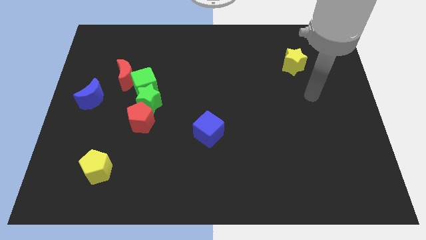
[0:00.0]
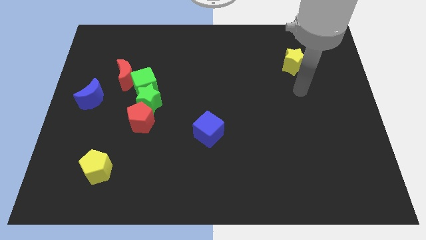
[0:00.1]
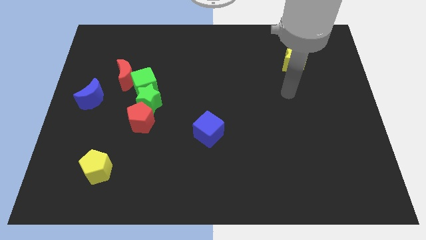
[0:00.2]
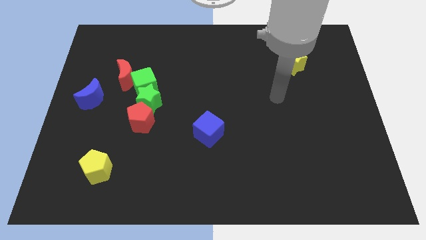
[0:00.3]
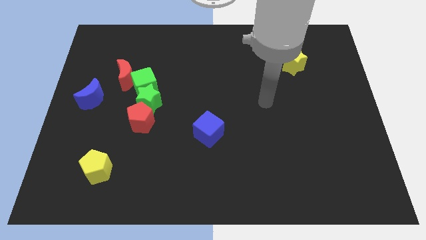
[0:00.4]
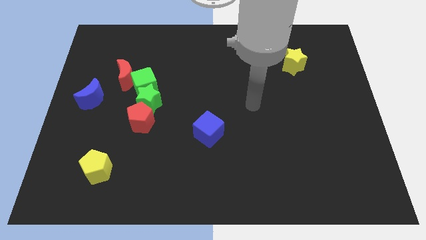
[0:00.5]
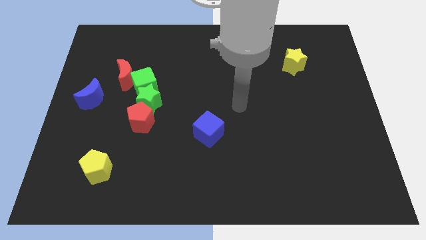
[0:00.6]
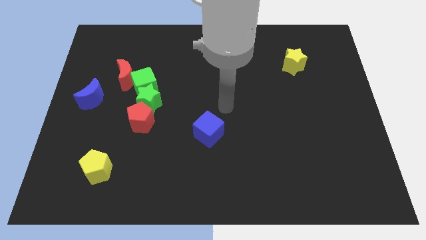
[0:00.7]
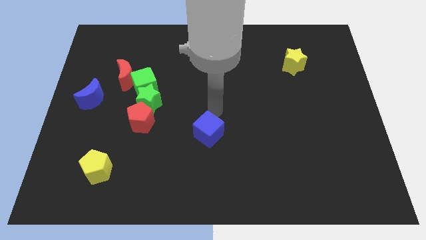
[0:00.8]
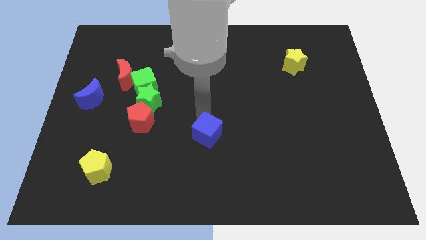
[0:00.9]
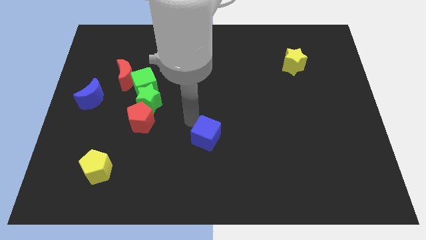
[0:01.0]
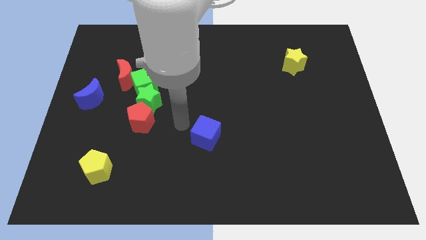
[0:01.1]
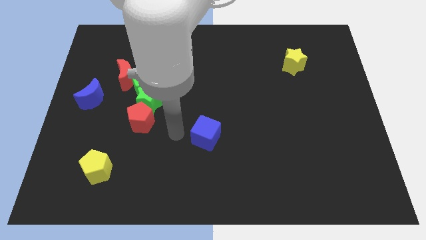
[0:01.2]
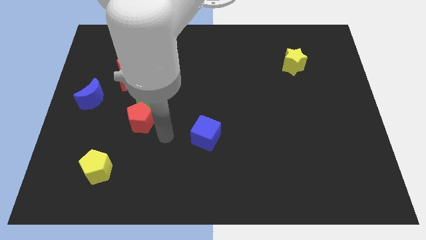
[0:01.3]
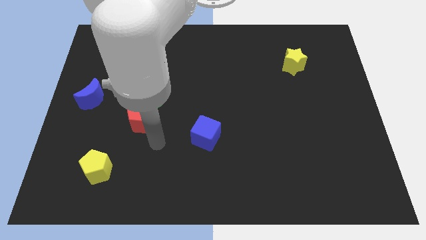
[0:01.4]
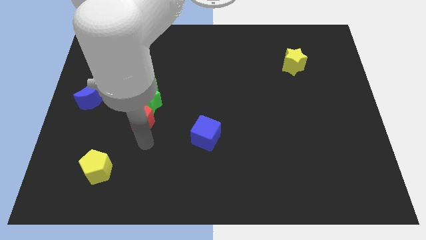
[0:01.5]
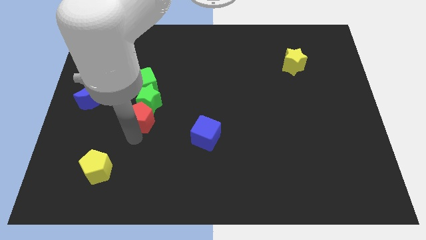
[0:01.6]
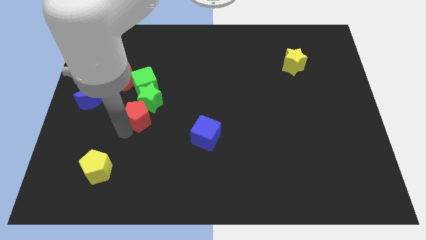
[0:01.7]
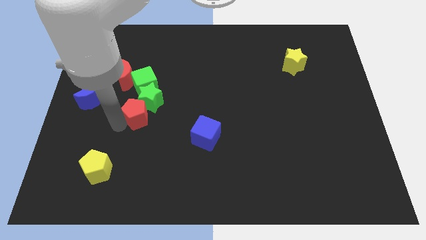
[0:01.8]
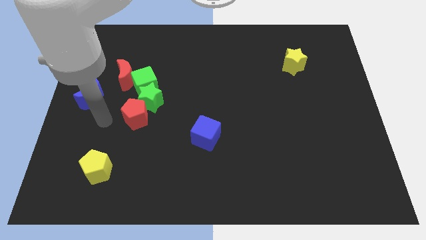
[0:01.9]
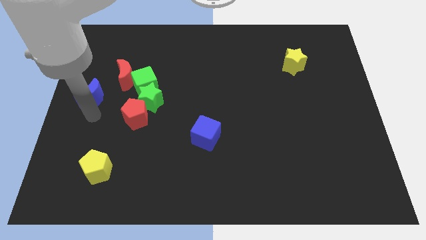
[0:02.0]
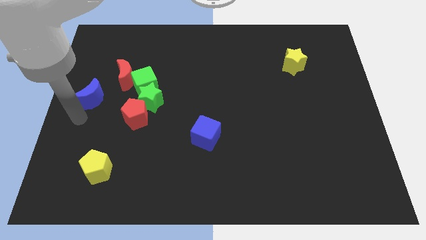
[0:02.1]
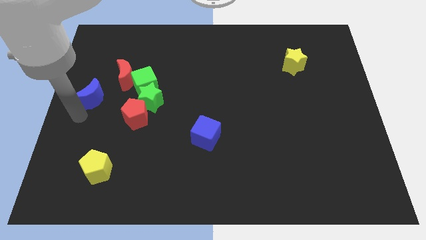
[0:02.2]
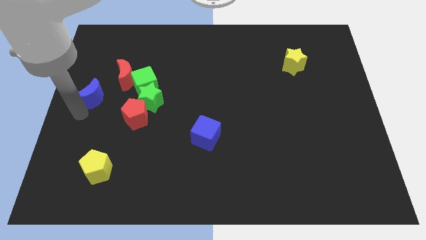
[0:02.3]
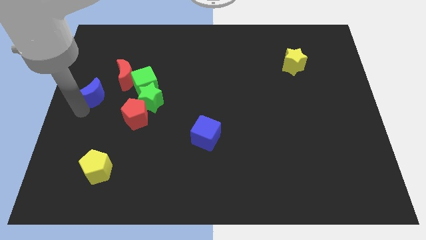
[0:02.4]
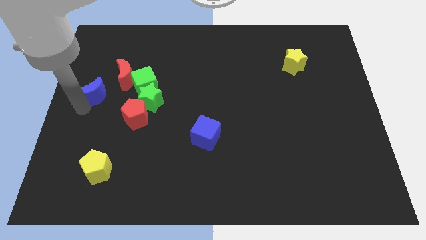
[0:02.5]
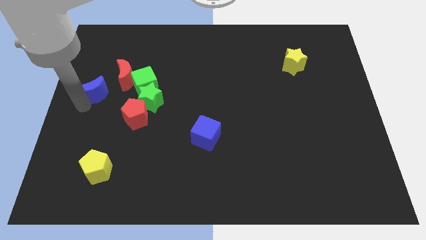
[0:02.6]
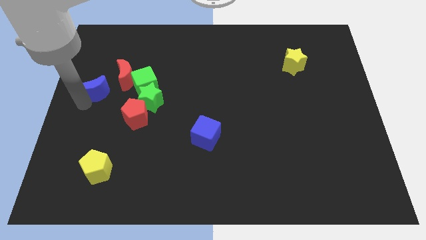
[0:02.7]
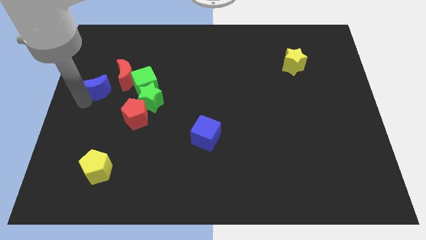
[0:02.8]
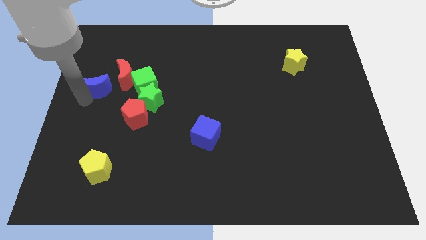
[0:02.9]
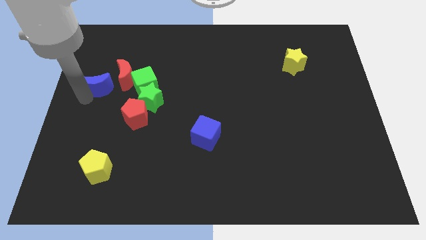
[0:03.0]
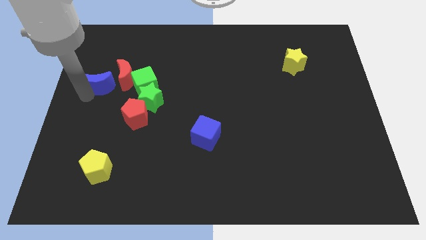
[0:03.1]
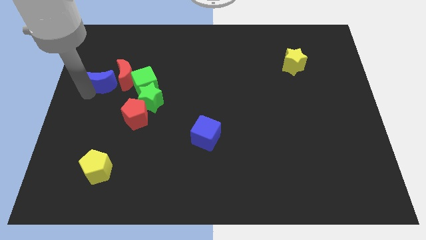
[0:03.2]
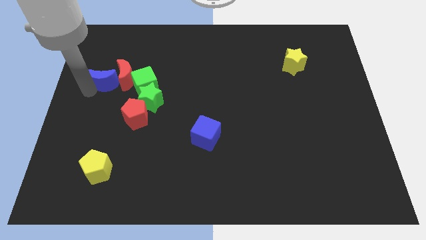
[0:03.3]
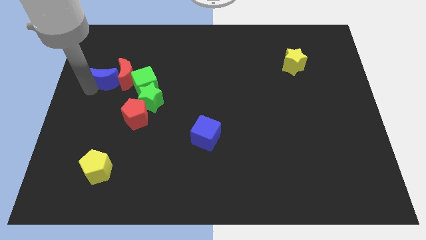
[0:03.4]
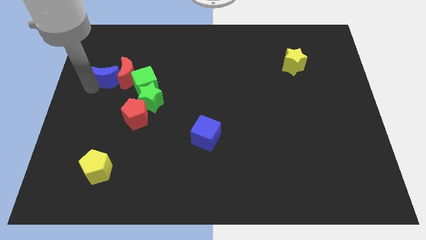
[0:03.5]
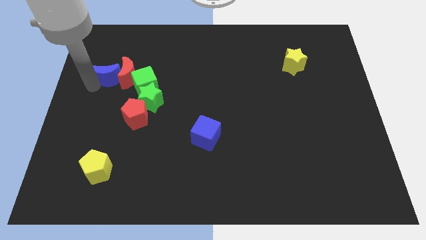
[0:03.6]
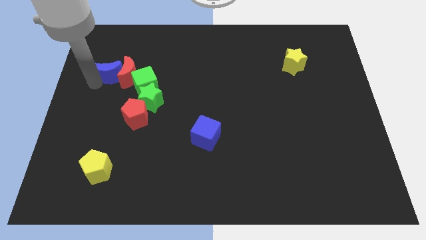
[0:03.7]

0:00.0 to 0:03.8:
push the blue moon up and right a bit

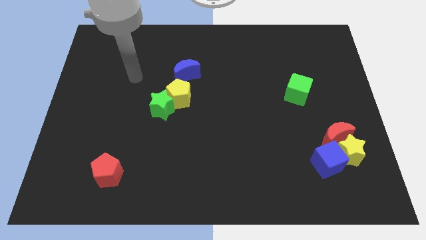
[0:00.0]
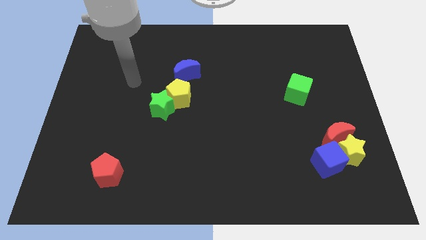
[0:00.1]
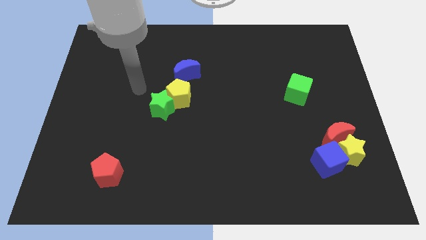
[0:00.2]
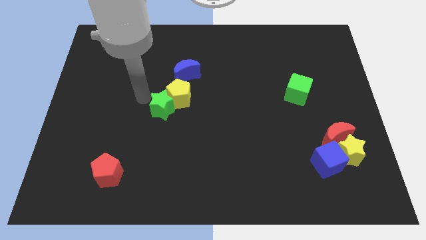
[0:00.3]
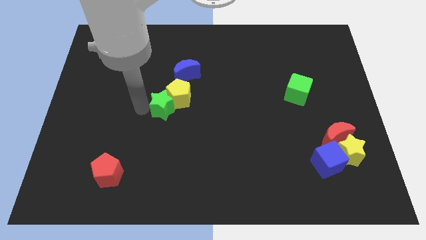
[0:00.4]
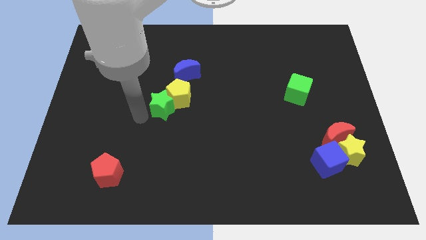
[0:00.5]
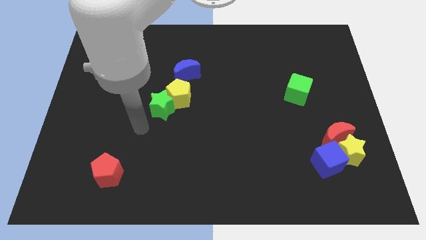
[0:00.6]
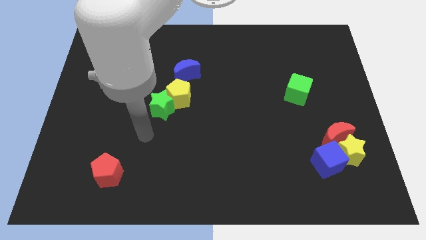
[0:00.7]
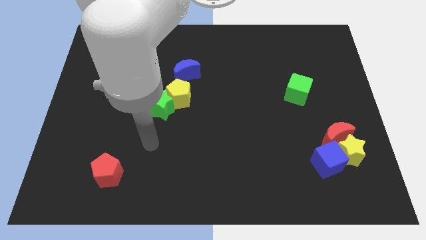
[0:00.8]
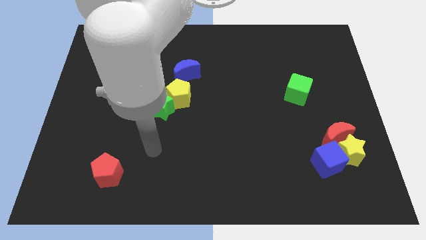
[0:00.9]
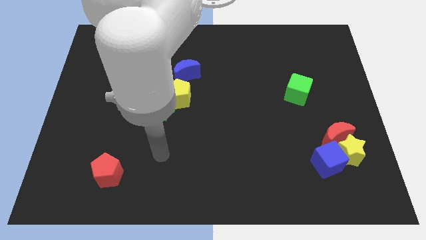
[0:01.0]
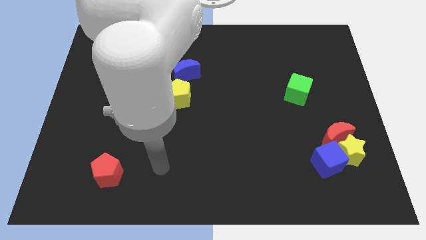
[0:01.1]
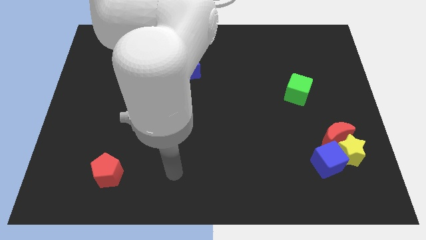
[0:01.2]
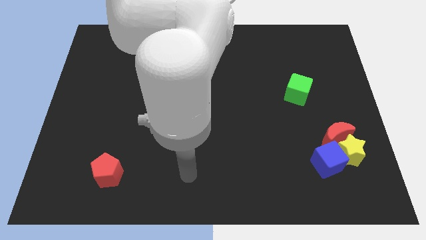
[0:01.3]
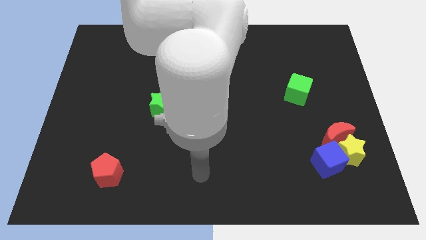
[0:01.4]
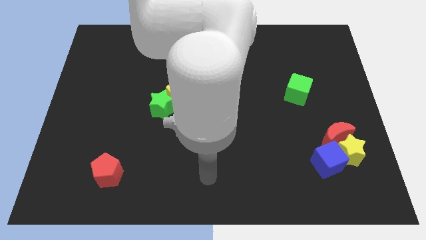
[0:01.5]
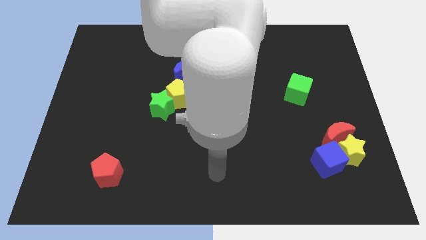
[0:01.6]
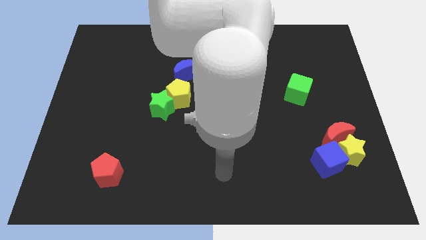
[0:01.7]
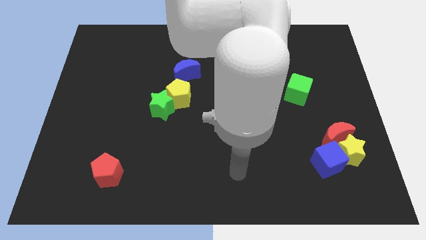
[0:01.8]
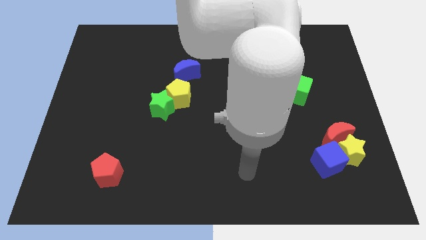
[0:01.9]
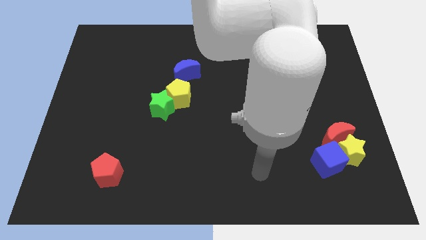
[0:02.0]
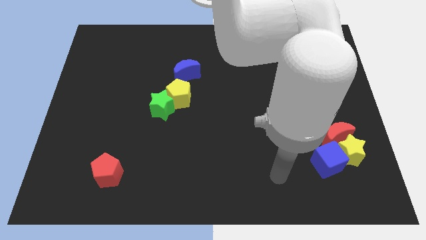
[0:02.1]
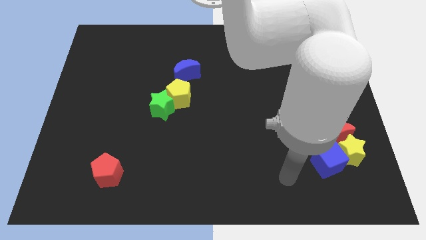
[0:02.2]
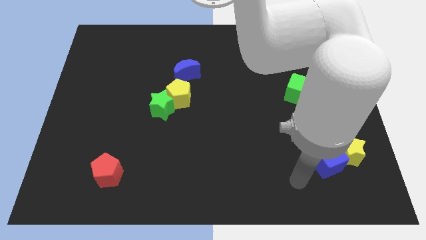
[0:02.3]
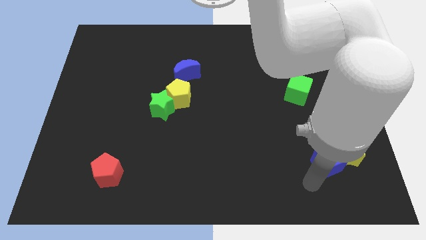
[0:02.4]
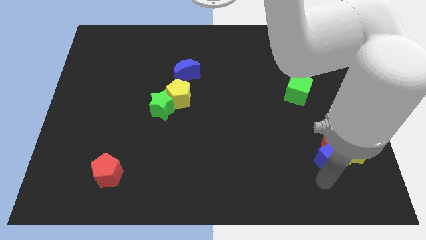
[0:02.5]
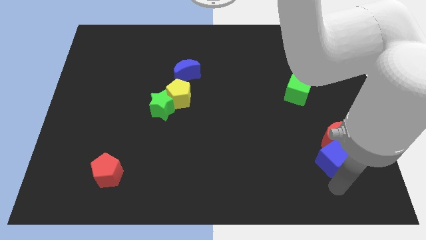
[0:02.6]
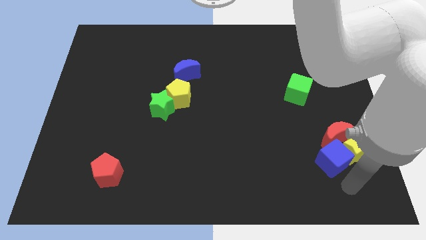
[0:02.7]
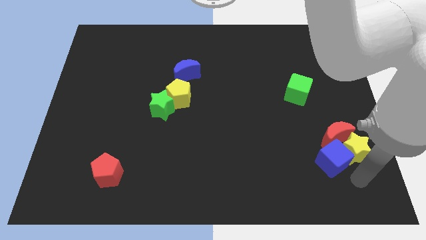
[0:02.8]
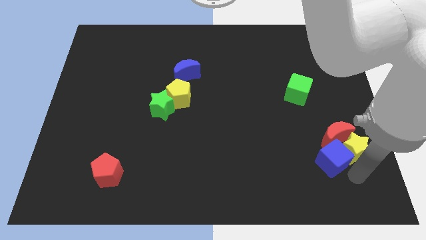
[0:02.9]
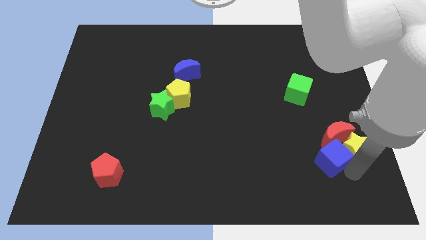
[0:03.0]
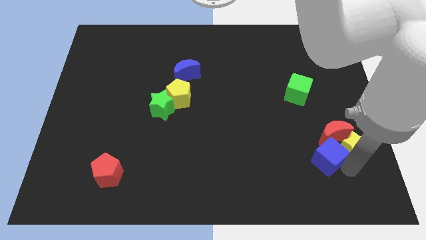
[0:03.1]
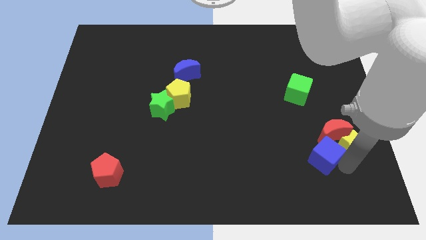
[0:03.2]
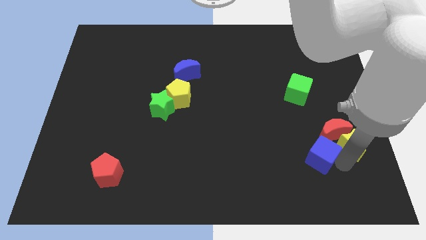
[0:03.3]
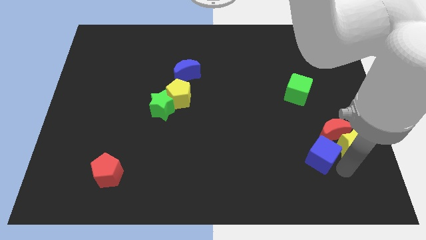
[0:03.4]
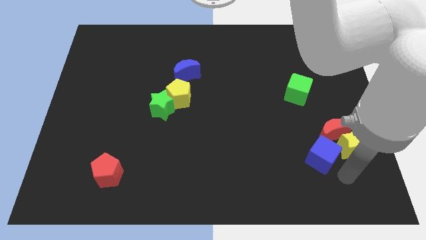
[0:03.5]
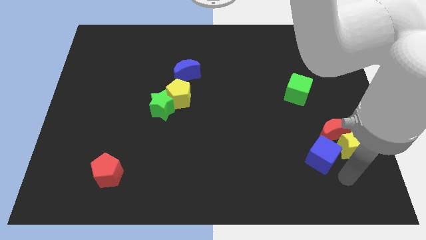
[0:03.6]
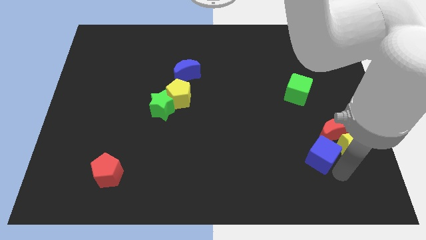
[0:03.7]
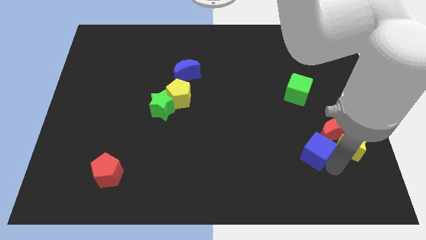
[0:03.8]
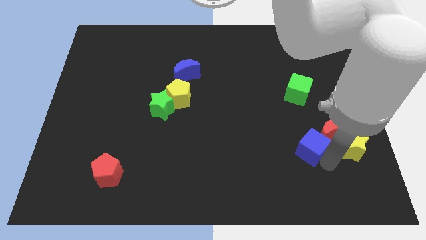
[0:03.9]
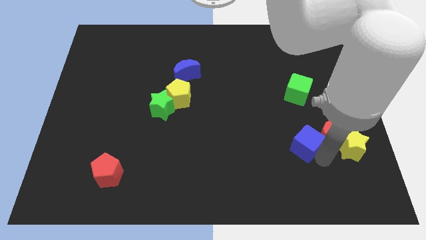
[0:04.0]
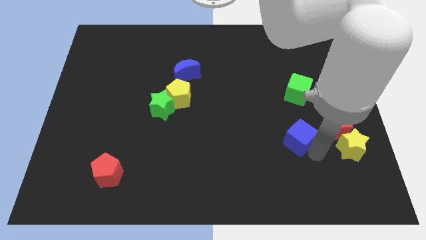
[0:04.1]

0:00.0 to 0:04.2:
move the blue cube up and left diagonally a little bit

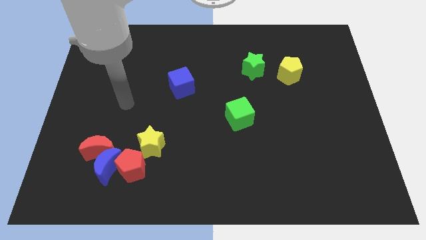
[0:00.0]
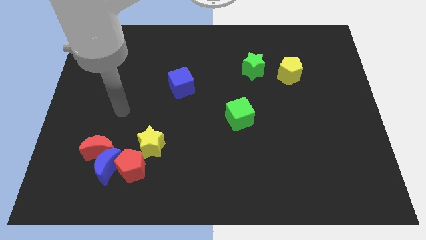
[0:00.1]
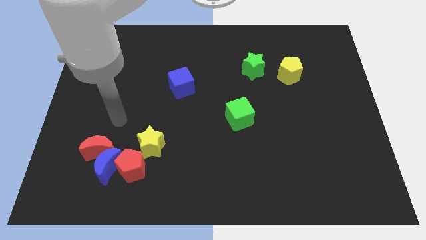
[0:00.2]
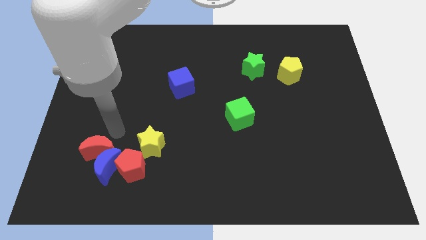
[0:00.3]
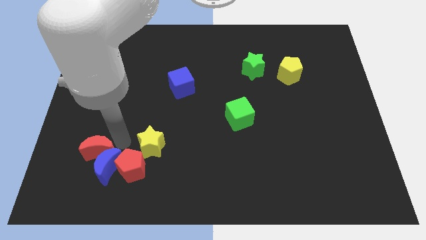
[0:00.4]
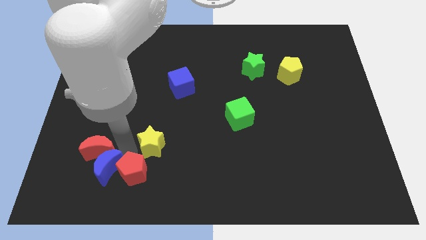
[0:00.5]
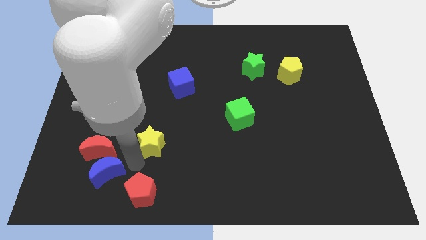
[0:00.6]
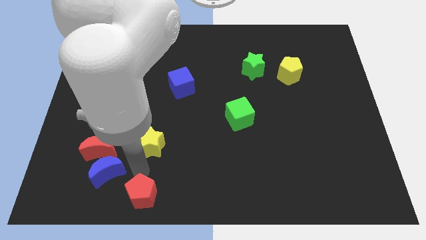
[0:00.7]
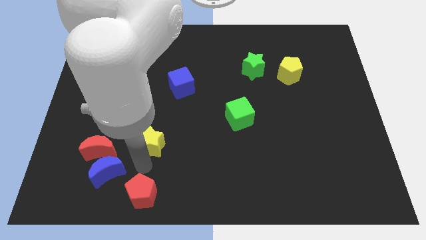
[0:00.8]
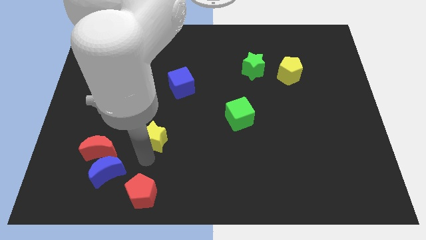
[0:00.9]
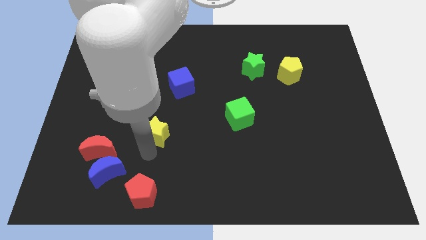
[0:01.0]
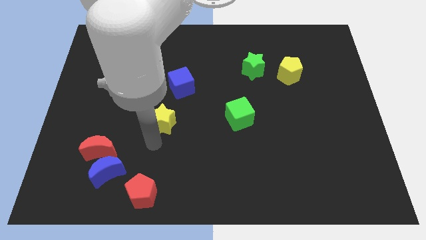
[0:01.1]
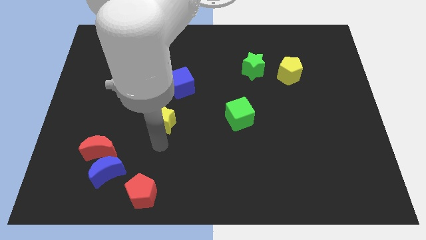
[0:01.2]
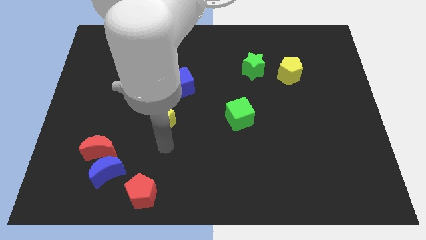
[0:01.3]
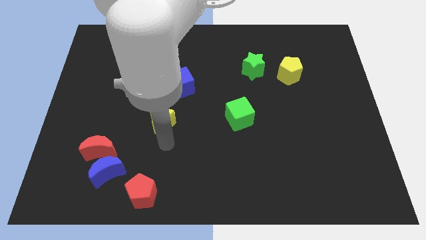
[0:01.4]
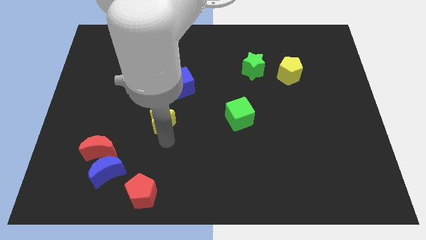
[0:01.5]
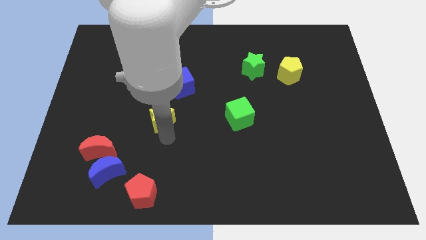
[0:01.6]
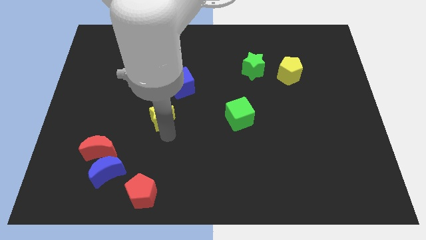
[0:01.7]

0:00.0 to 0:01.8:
push the yellow star up a little
